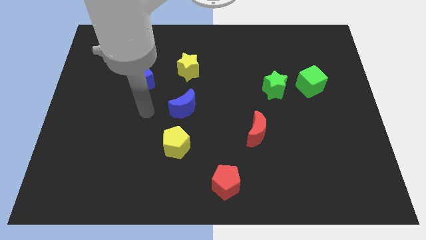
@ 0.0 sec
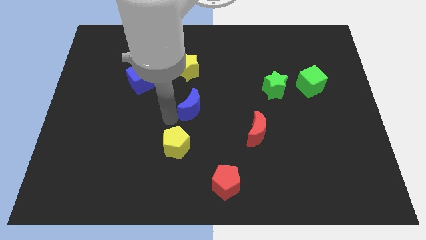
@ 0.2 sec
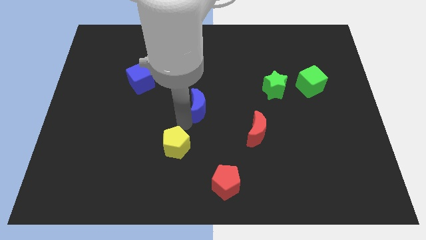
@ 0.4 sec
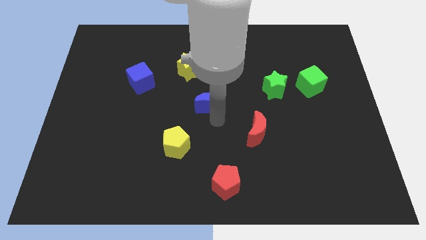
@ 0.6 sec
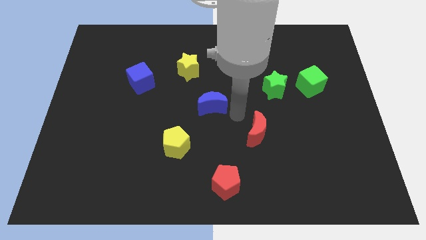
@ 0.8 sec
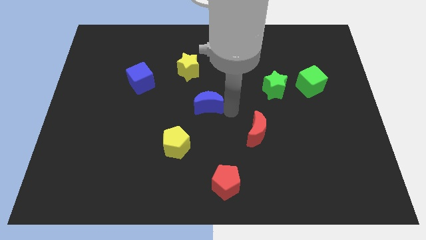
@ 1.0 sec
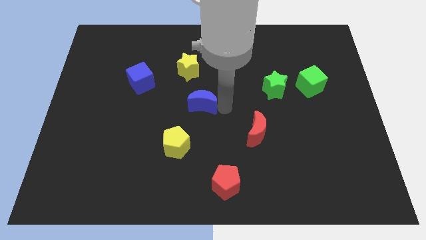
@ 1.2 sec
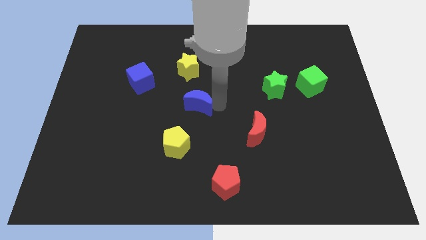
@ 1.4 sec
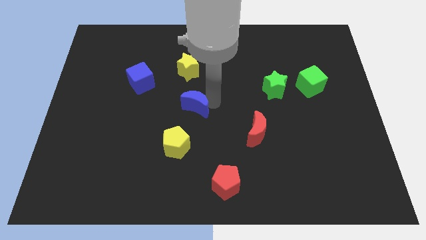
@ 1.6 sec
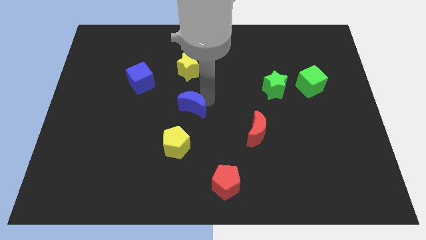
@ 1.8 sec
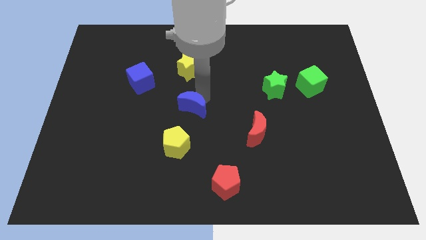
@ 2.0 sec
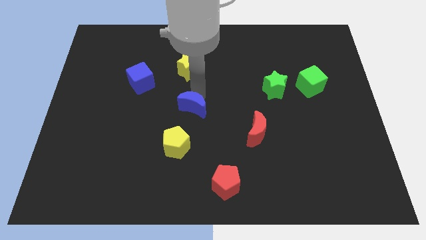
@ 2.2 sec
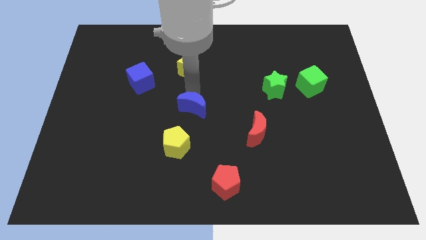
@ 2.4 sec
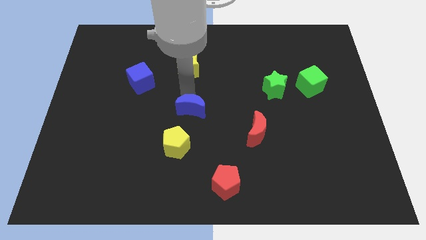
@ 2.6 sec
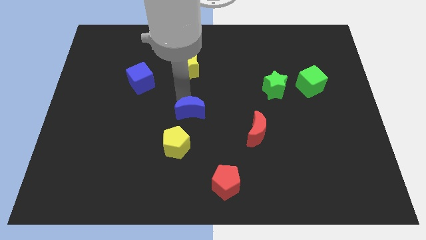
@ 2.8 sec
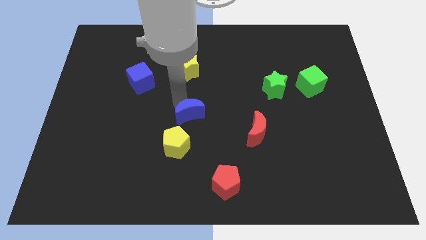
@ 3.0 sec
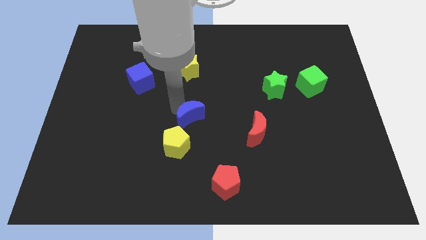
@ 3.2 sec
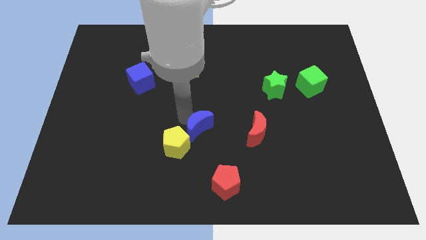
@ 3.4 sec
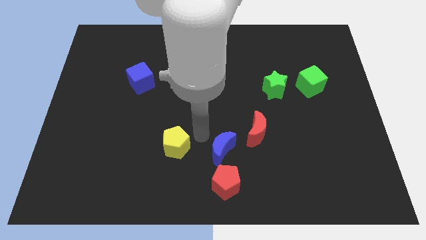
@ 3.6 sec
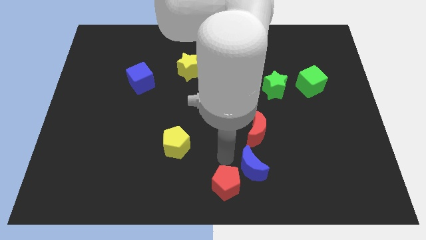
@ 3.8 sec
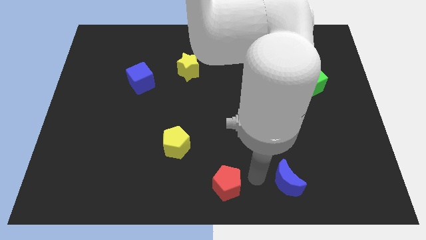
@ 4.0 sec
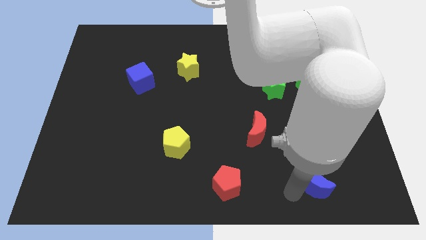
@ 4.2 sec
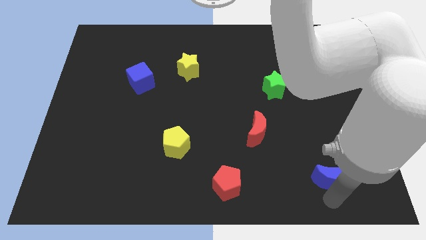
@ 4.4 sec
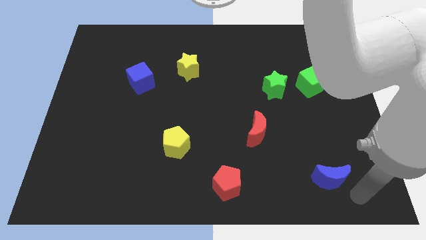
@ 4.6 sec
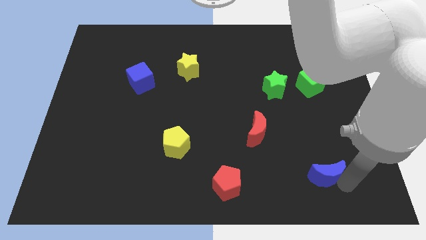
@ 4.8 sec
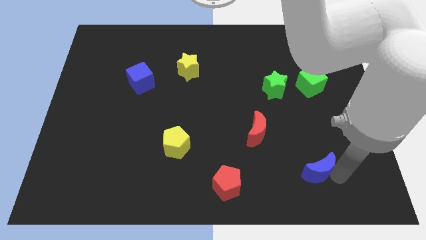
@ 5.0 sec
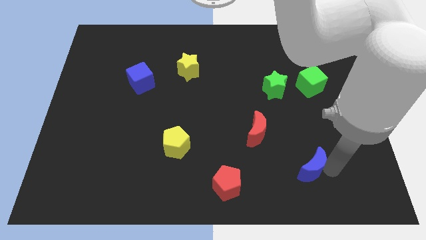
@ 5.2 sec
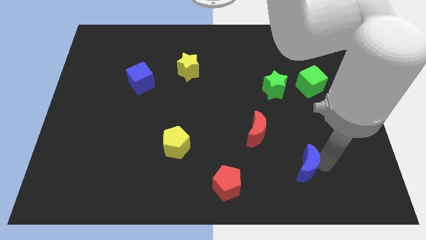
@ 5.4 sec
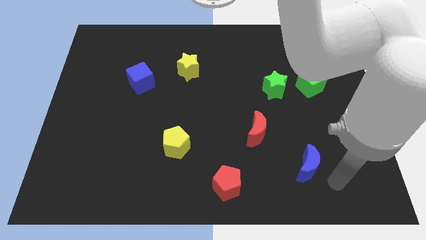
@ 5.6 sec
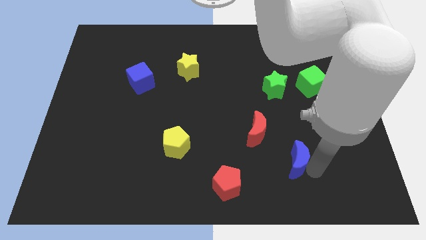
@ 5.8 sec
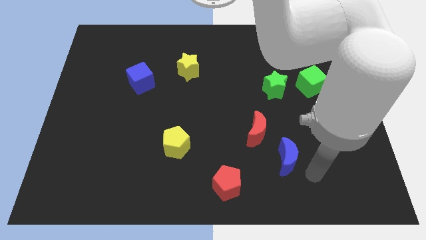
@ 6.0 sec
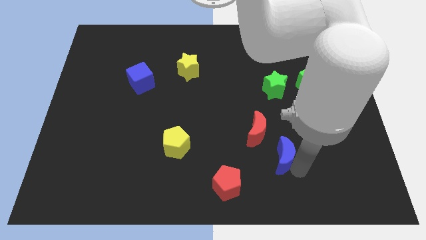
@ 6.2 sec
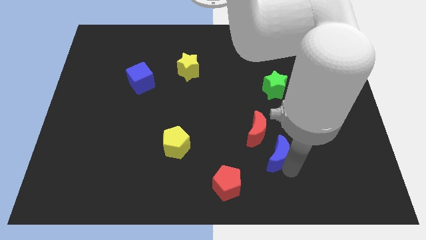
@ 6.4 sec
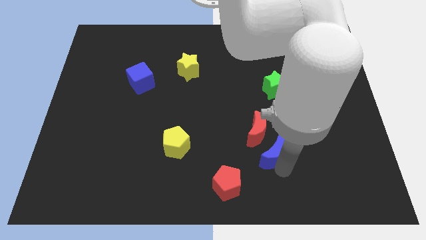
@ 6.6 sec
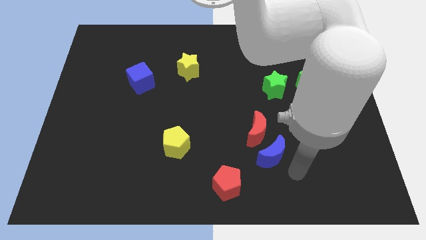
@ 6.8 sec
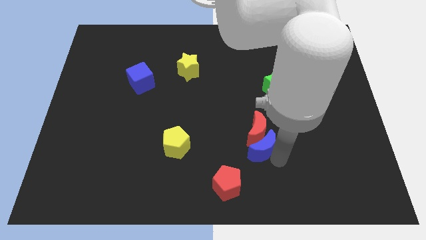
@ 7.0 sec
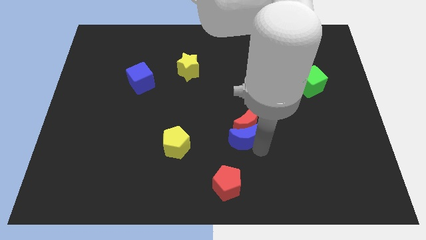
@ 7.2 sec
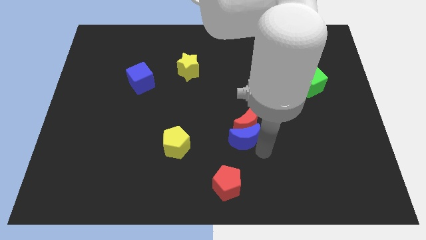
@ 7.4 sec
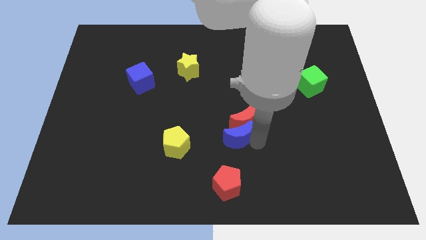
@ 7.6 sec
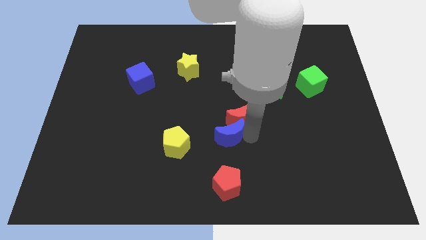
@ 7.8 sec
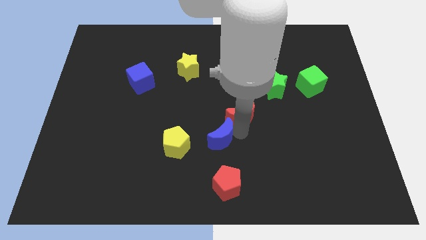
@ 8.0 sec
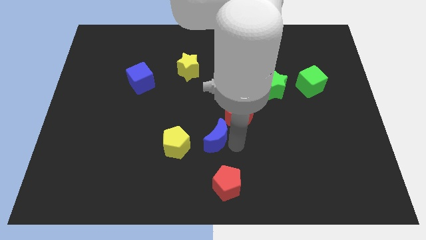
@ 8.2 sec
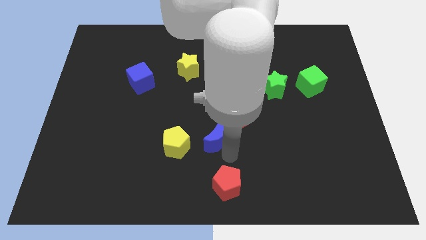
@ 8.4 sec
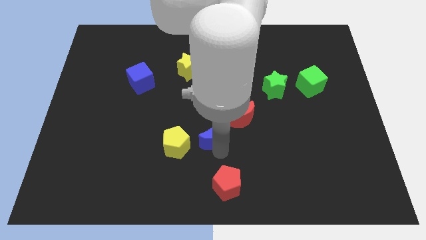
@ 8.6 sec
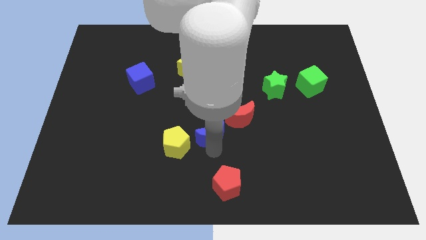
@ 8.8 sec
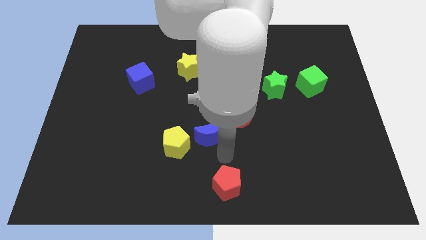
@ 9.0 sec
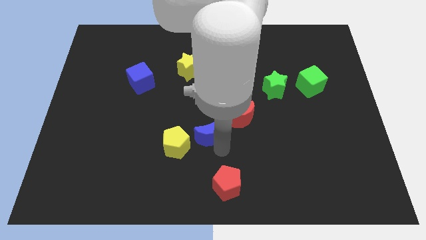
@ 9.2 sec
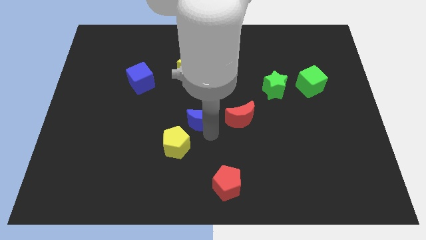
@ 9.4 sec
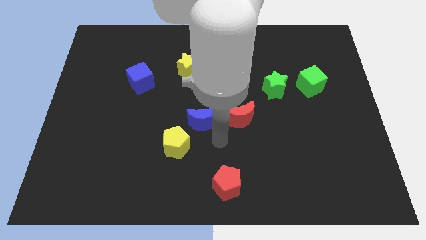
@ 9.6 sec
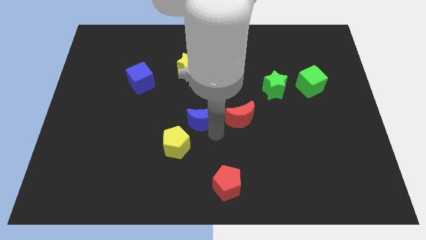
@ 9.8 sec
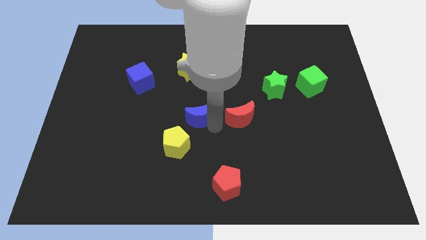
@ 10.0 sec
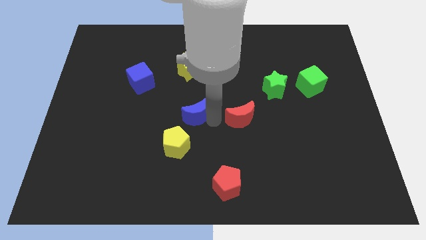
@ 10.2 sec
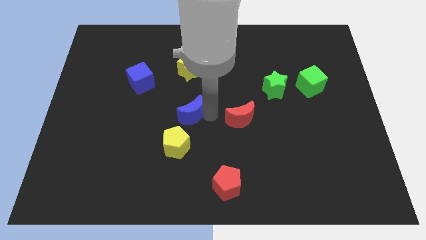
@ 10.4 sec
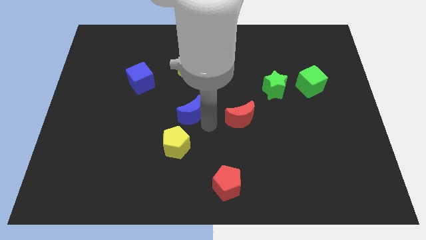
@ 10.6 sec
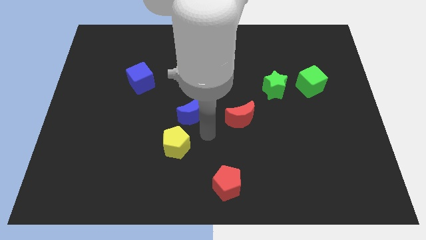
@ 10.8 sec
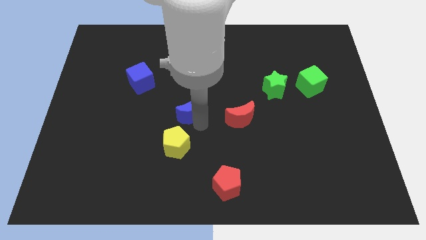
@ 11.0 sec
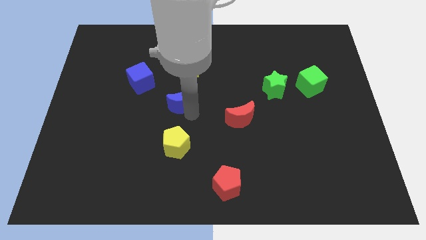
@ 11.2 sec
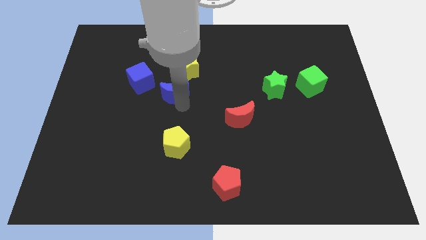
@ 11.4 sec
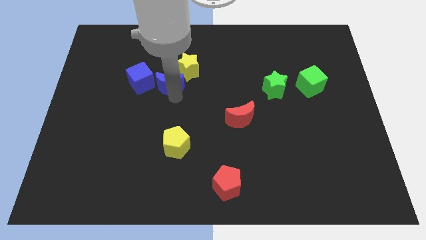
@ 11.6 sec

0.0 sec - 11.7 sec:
slightly slide the blue moon upwards and to the left

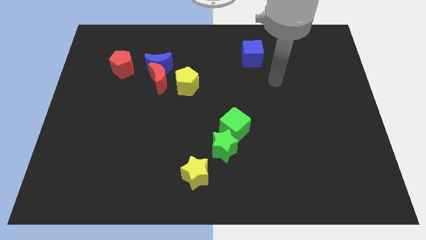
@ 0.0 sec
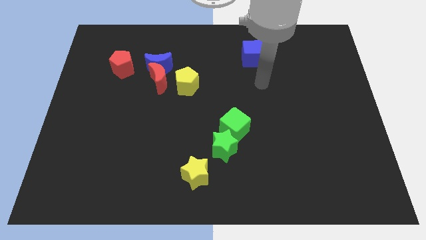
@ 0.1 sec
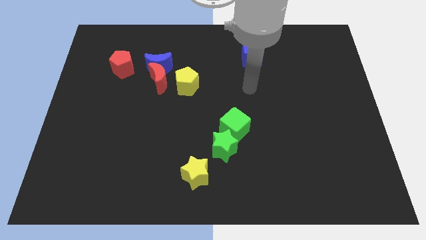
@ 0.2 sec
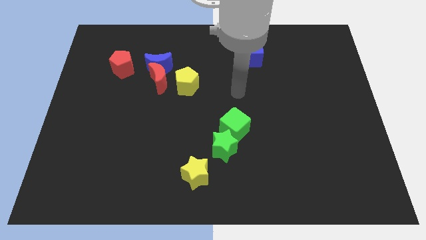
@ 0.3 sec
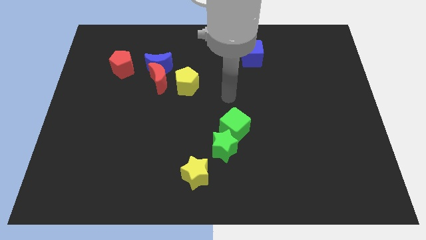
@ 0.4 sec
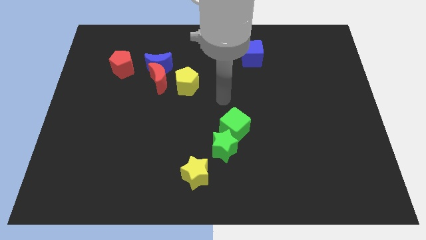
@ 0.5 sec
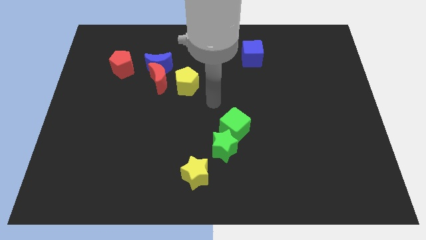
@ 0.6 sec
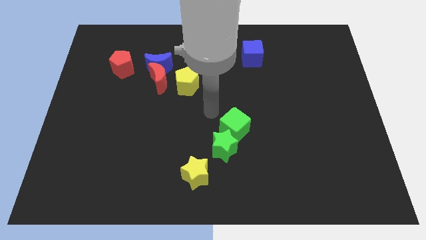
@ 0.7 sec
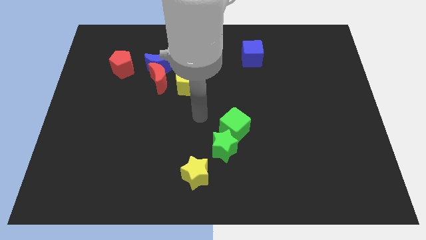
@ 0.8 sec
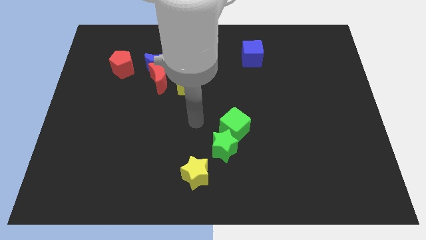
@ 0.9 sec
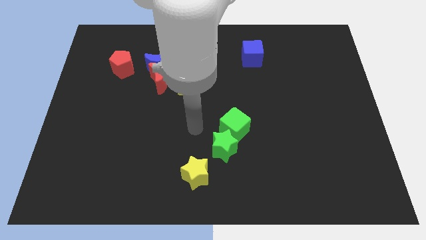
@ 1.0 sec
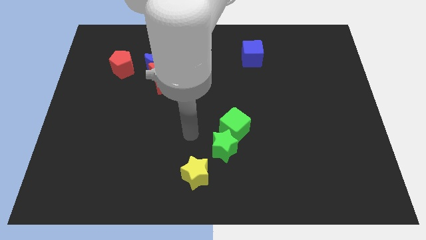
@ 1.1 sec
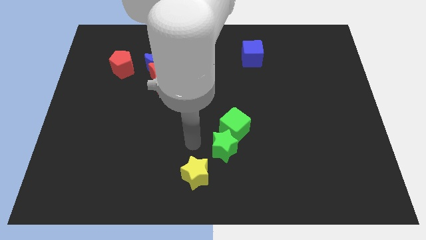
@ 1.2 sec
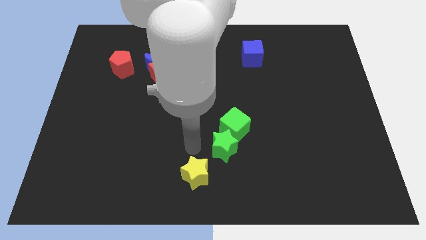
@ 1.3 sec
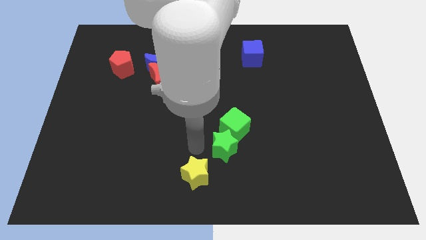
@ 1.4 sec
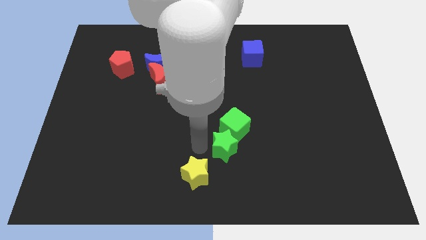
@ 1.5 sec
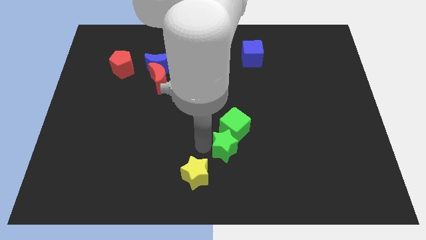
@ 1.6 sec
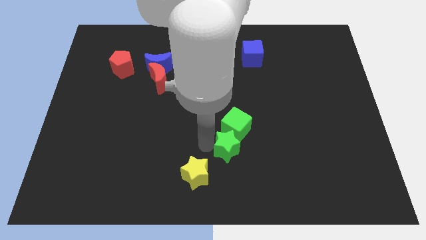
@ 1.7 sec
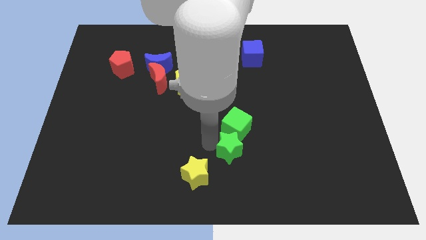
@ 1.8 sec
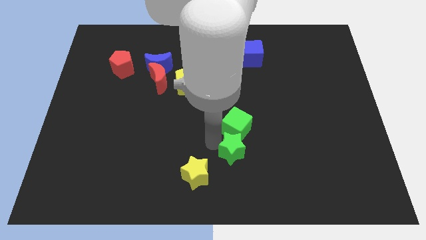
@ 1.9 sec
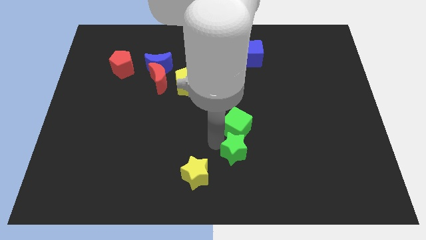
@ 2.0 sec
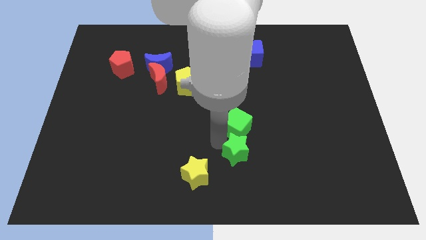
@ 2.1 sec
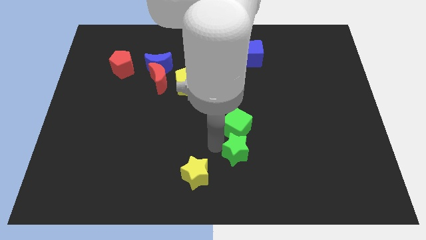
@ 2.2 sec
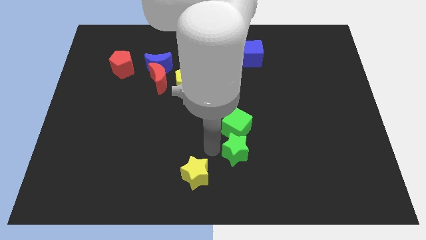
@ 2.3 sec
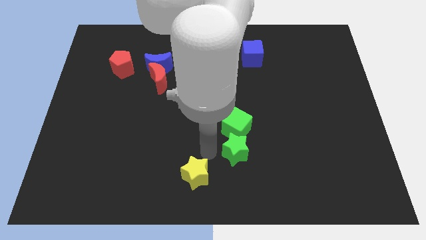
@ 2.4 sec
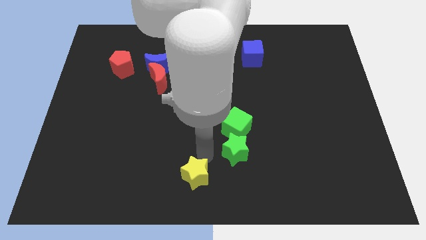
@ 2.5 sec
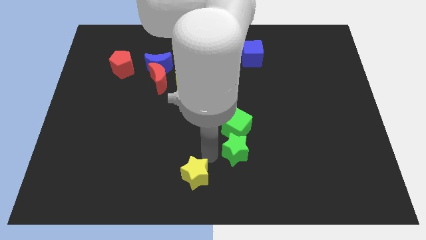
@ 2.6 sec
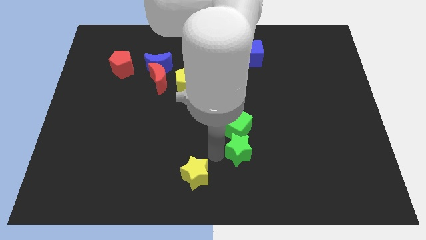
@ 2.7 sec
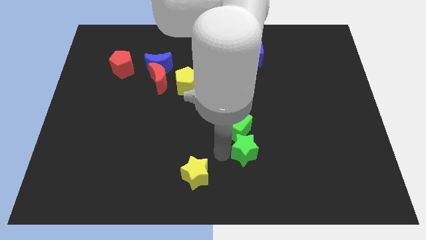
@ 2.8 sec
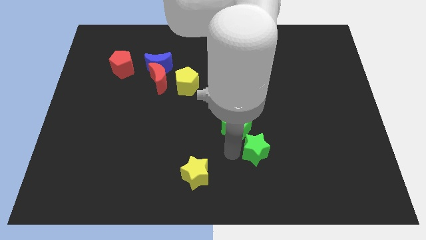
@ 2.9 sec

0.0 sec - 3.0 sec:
slightly move the green star to the right
